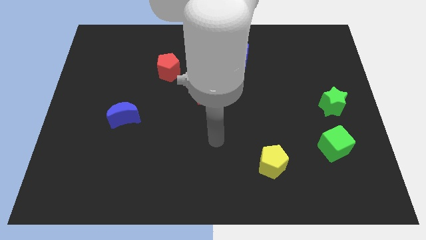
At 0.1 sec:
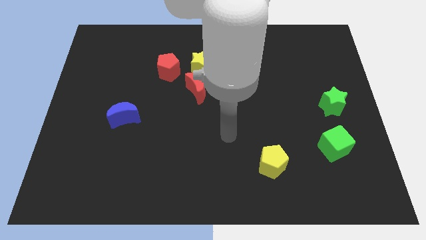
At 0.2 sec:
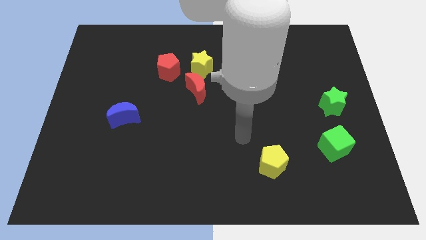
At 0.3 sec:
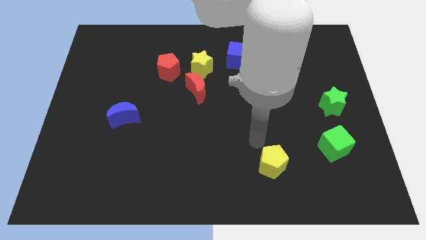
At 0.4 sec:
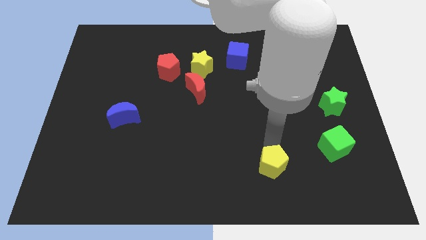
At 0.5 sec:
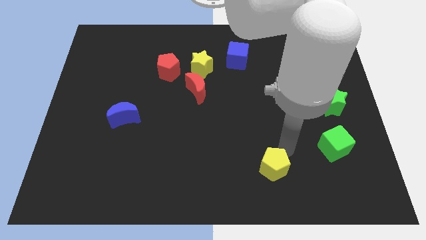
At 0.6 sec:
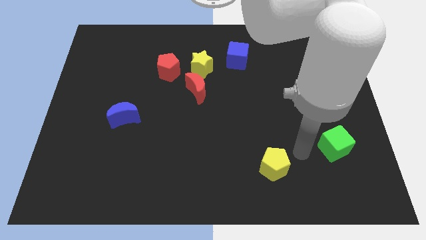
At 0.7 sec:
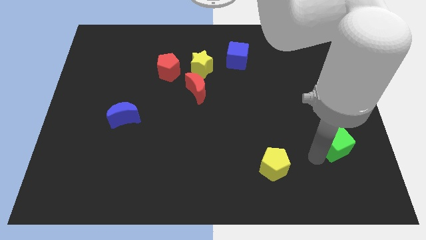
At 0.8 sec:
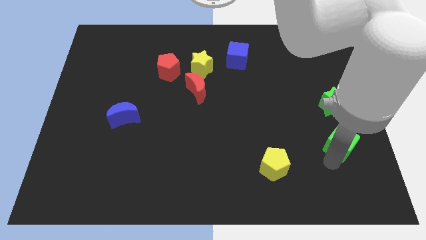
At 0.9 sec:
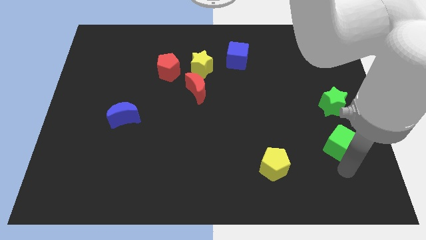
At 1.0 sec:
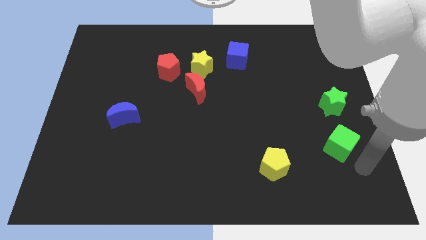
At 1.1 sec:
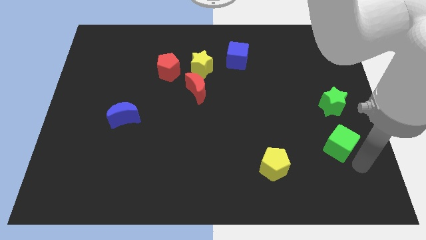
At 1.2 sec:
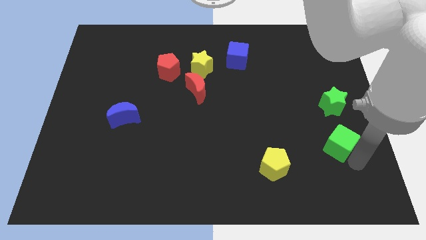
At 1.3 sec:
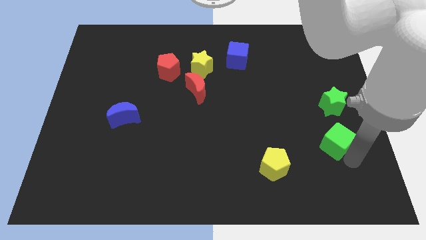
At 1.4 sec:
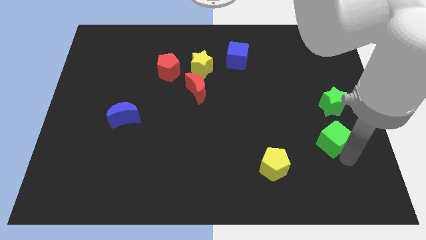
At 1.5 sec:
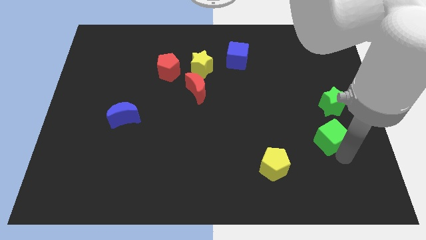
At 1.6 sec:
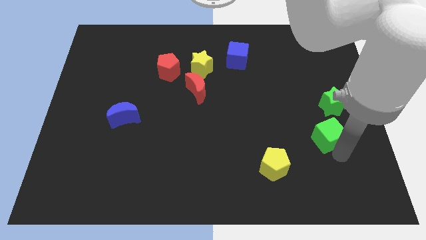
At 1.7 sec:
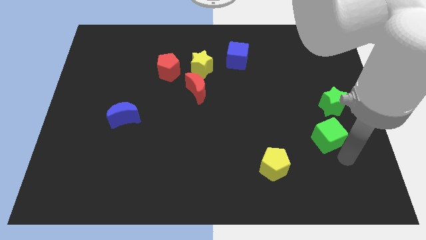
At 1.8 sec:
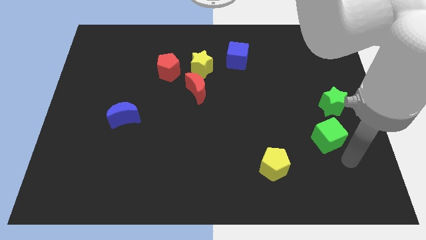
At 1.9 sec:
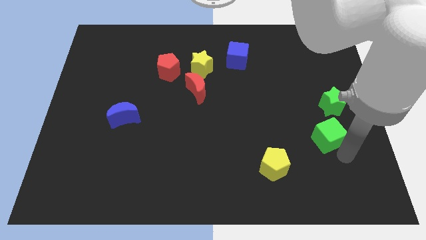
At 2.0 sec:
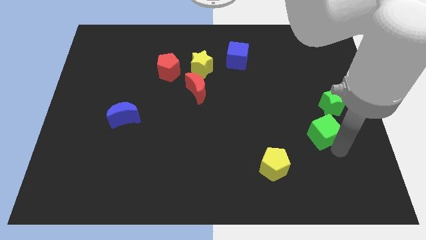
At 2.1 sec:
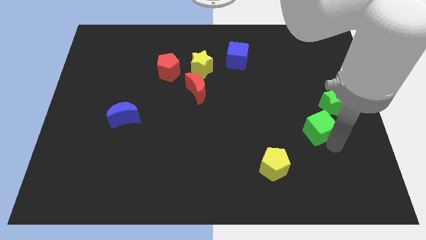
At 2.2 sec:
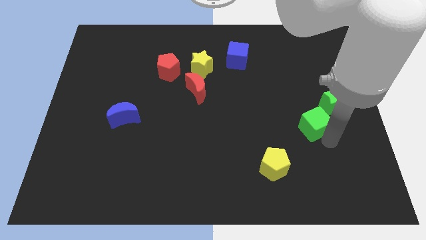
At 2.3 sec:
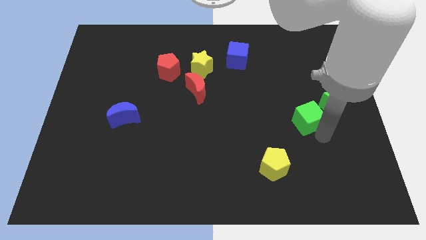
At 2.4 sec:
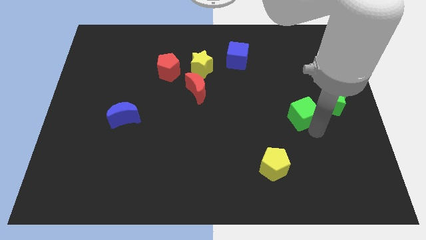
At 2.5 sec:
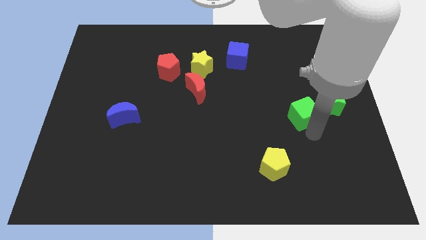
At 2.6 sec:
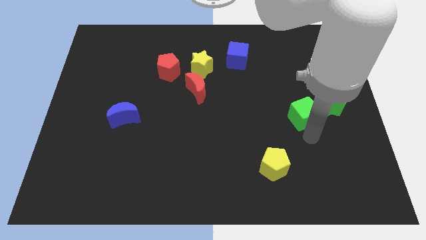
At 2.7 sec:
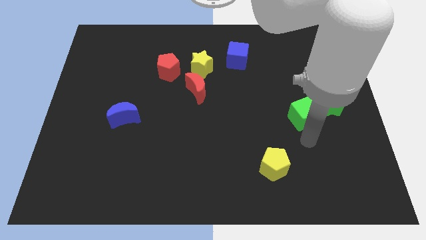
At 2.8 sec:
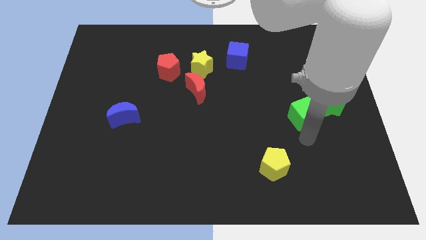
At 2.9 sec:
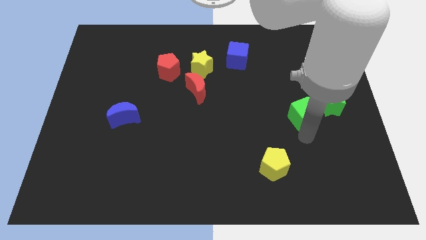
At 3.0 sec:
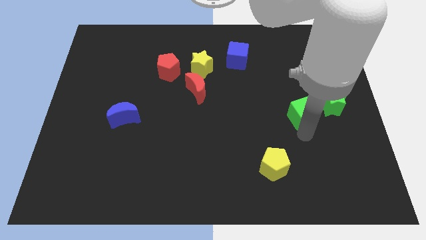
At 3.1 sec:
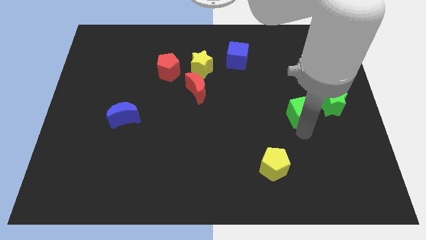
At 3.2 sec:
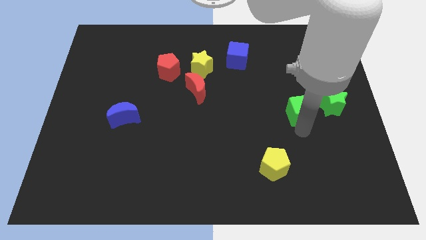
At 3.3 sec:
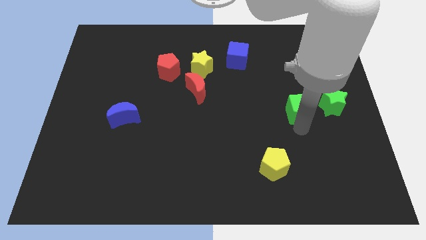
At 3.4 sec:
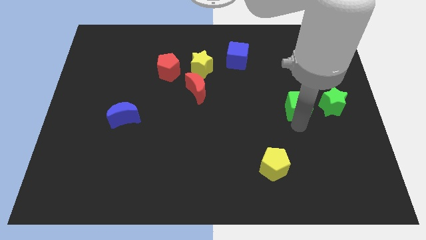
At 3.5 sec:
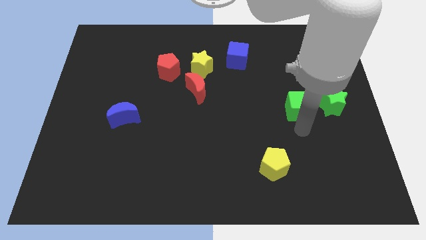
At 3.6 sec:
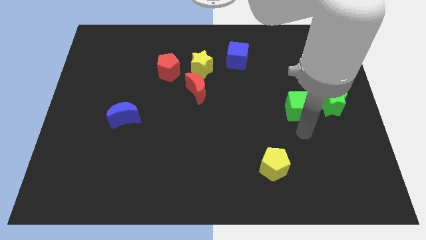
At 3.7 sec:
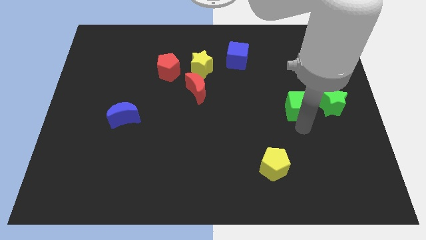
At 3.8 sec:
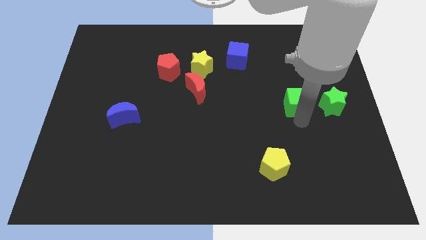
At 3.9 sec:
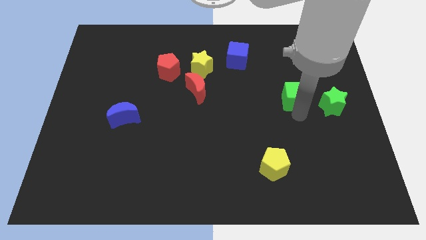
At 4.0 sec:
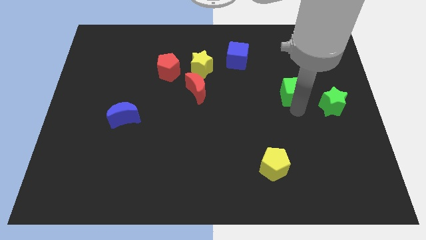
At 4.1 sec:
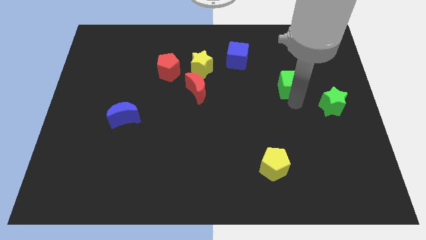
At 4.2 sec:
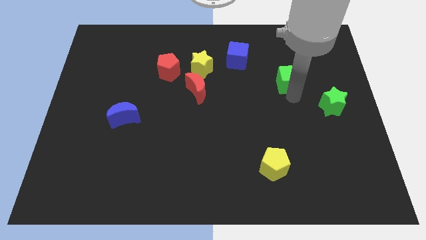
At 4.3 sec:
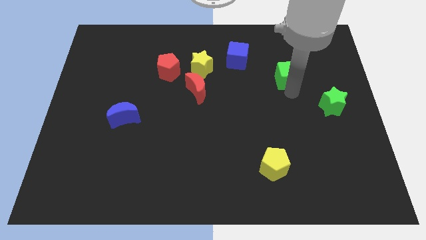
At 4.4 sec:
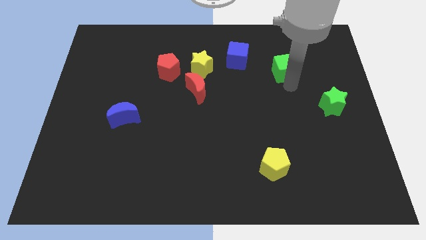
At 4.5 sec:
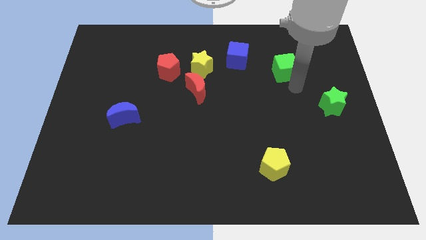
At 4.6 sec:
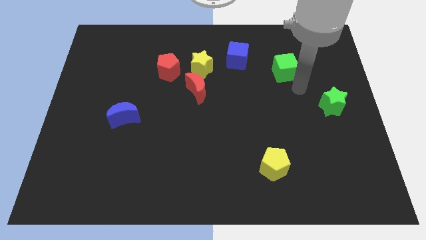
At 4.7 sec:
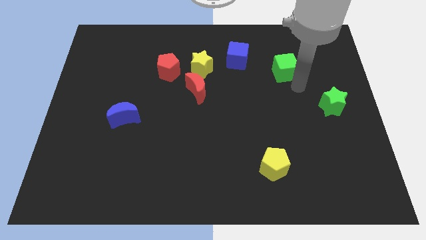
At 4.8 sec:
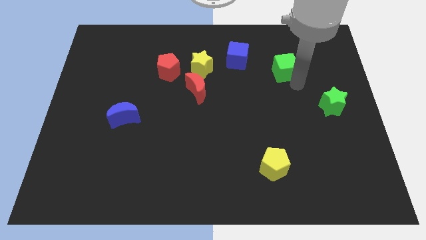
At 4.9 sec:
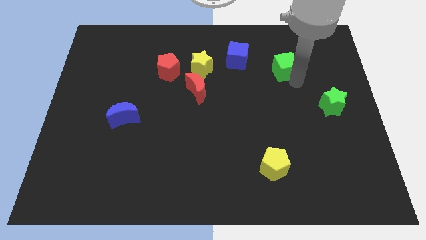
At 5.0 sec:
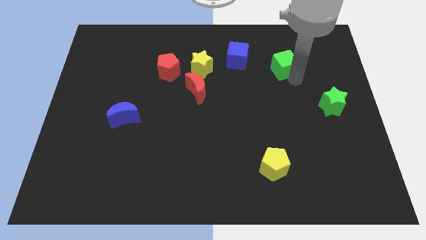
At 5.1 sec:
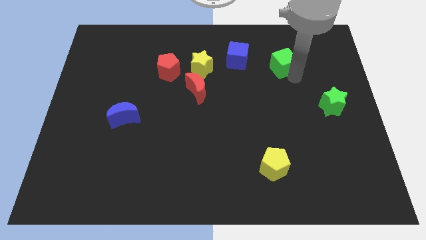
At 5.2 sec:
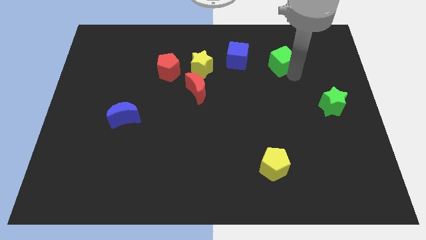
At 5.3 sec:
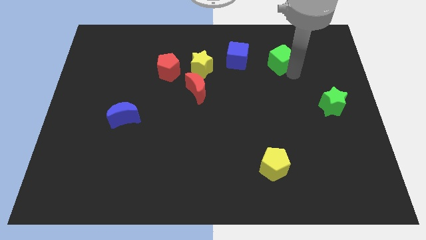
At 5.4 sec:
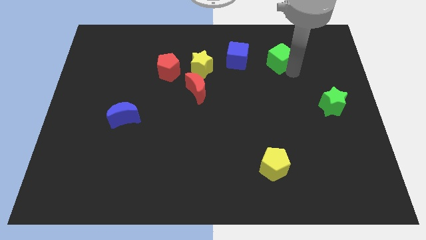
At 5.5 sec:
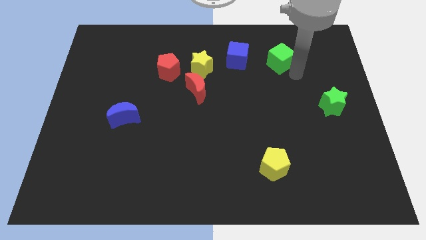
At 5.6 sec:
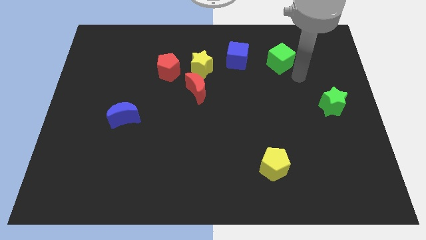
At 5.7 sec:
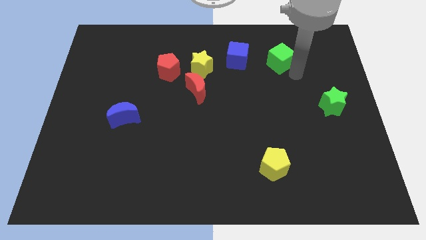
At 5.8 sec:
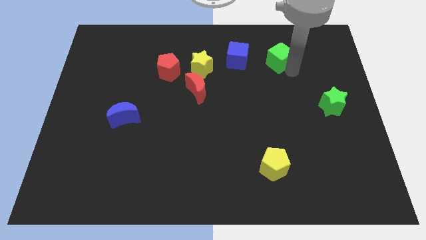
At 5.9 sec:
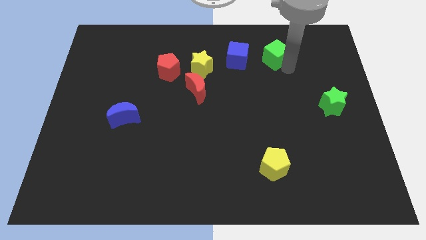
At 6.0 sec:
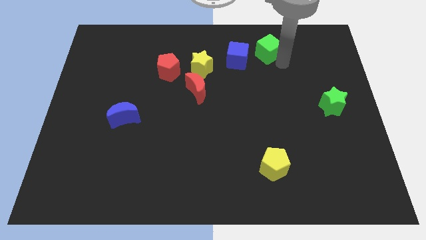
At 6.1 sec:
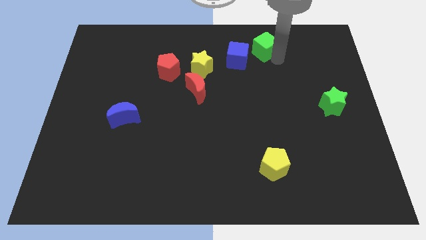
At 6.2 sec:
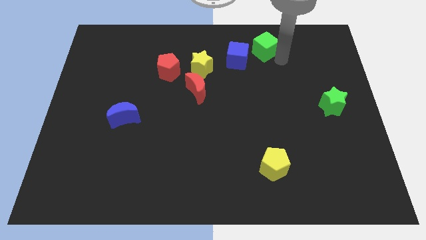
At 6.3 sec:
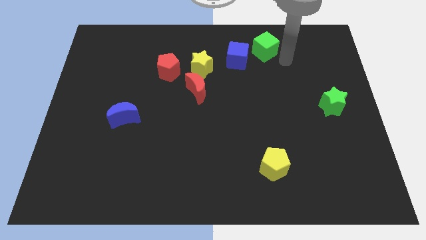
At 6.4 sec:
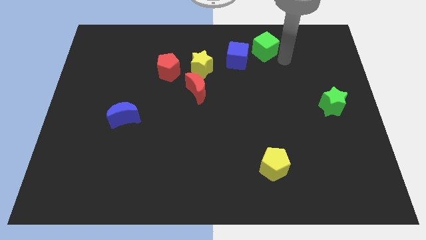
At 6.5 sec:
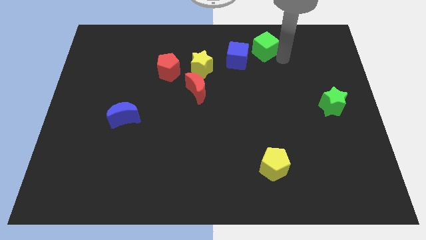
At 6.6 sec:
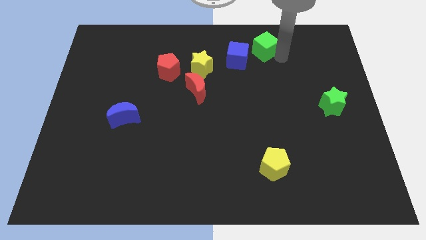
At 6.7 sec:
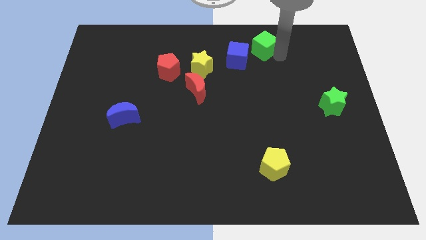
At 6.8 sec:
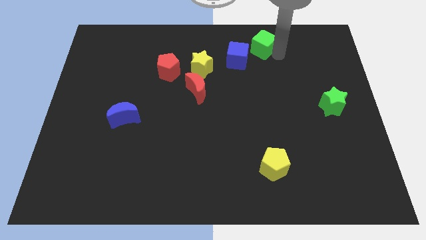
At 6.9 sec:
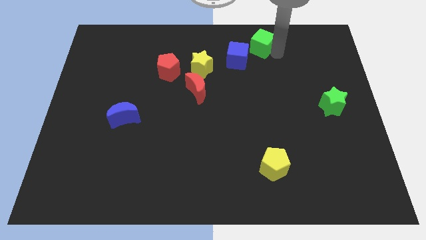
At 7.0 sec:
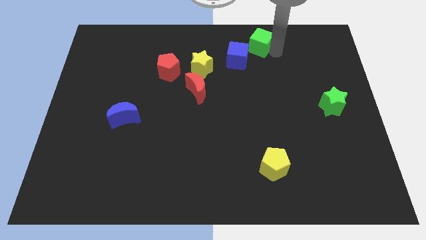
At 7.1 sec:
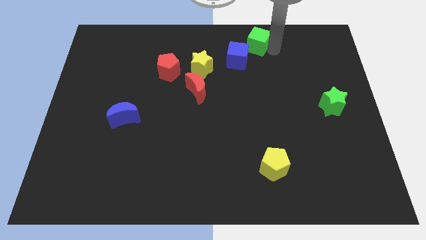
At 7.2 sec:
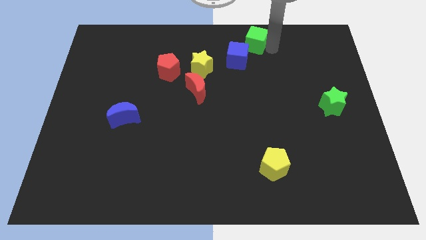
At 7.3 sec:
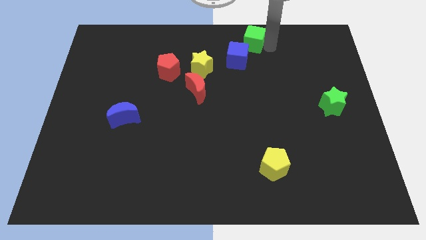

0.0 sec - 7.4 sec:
put the green cube to the towards your base

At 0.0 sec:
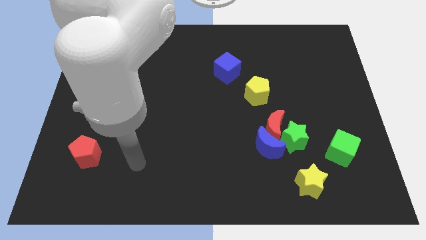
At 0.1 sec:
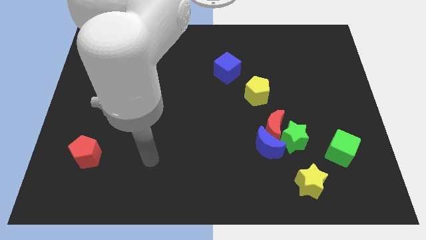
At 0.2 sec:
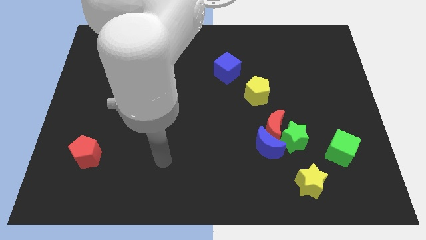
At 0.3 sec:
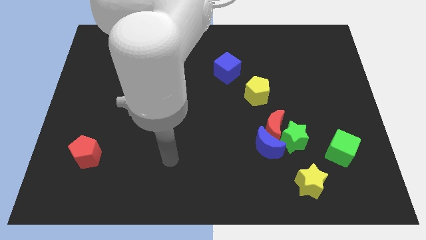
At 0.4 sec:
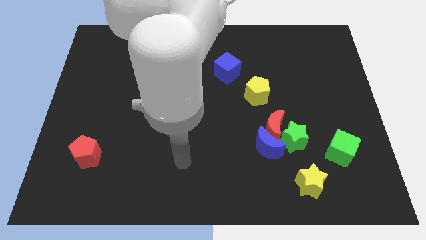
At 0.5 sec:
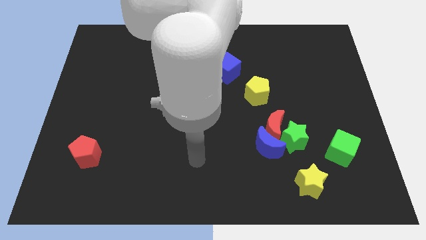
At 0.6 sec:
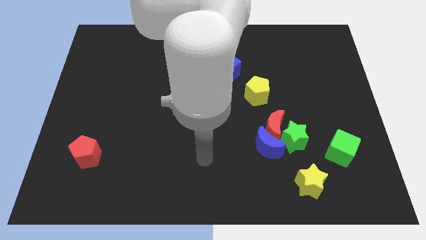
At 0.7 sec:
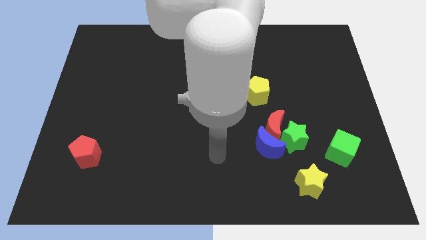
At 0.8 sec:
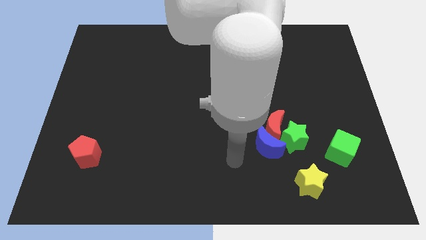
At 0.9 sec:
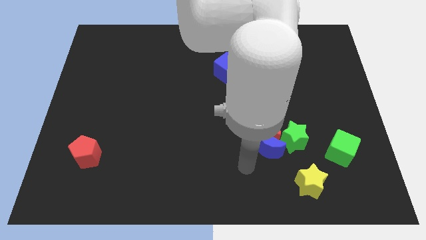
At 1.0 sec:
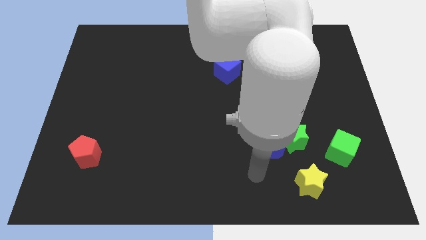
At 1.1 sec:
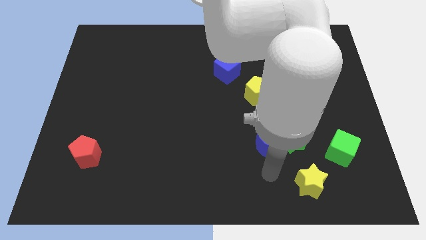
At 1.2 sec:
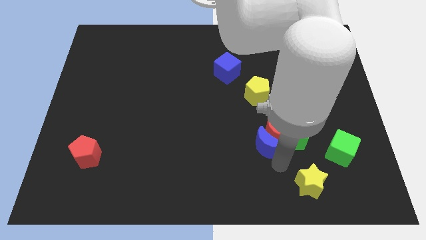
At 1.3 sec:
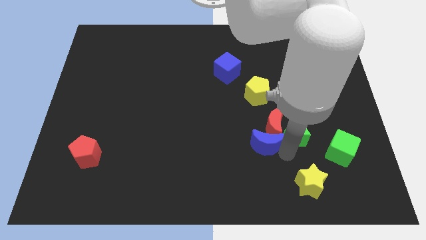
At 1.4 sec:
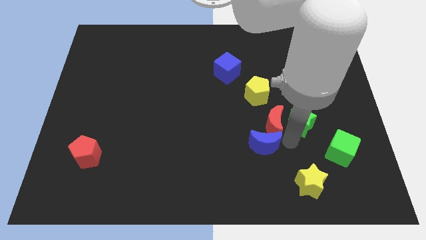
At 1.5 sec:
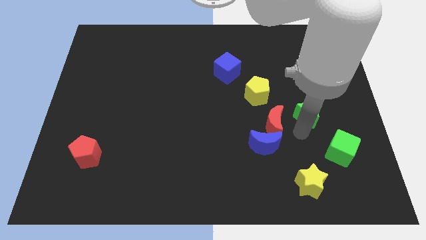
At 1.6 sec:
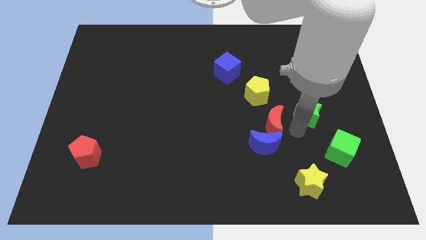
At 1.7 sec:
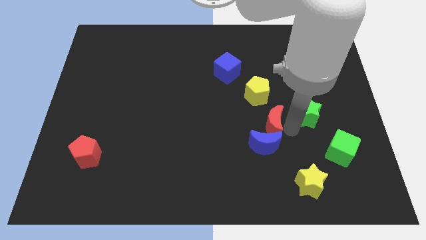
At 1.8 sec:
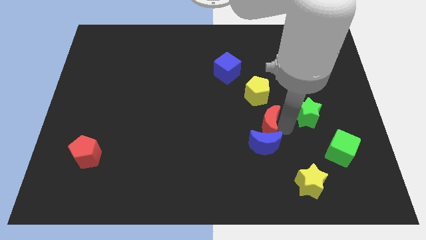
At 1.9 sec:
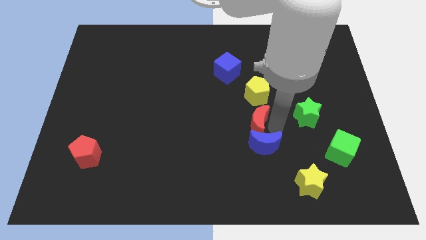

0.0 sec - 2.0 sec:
slide the red moon to the middle of the board
